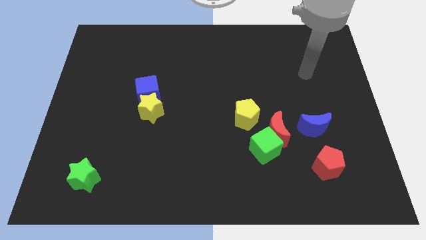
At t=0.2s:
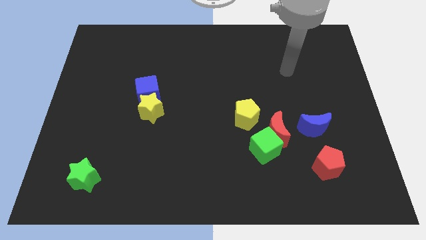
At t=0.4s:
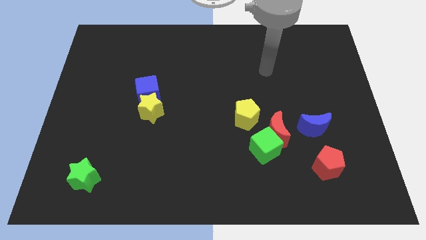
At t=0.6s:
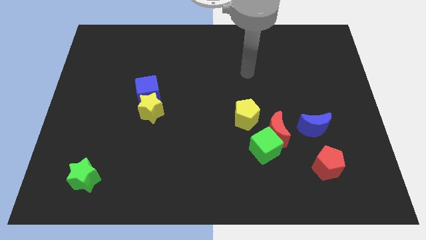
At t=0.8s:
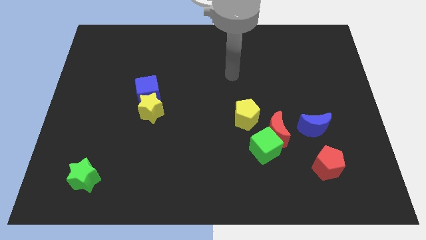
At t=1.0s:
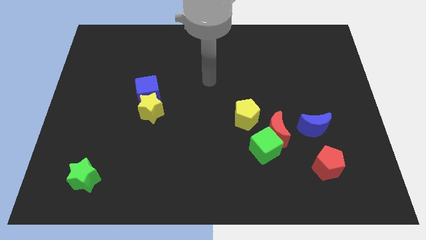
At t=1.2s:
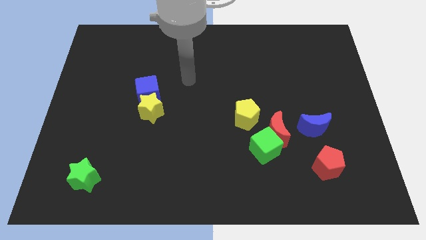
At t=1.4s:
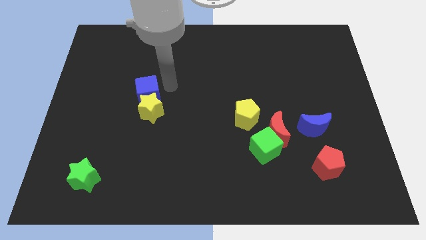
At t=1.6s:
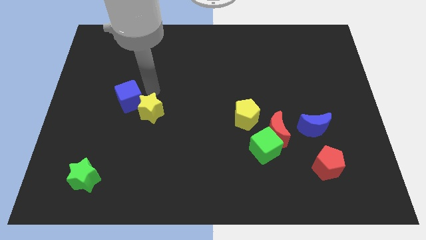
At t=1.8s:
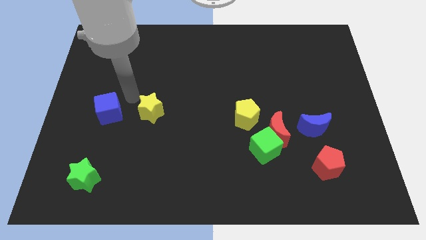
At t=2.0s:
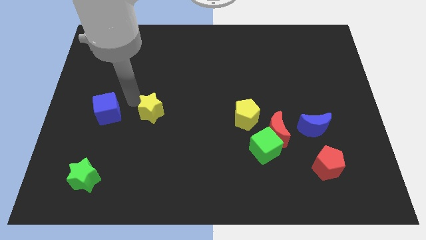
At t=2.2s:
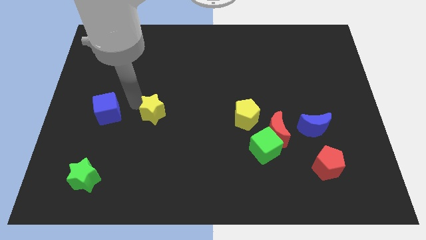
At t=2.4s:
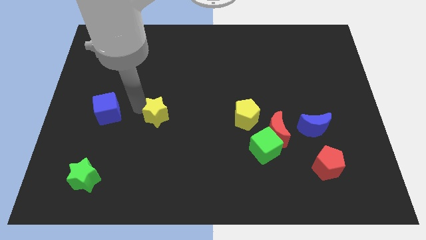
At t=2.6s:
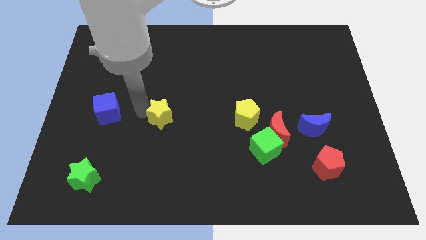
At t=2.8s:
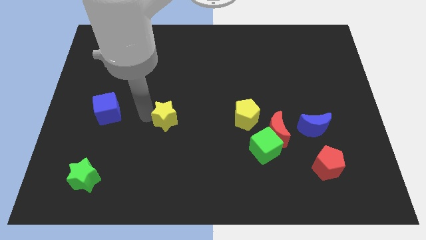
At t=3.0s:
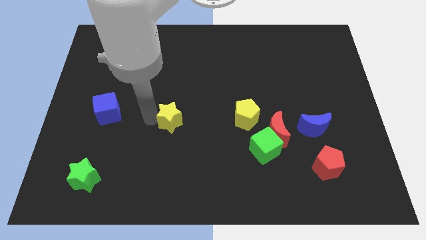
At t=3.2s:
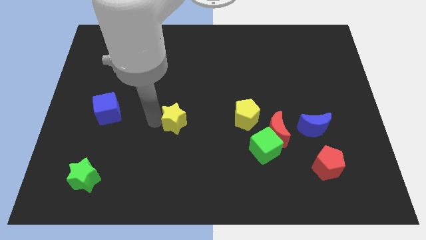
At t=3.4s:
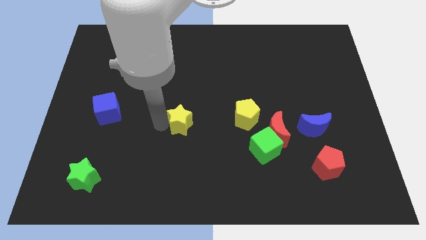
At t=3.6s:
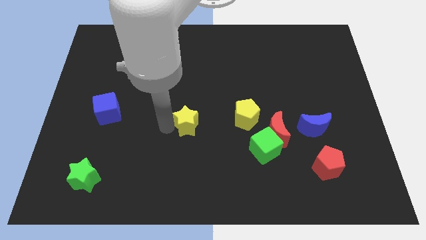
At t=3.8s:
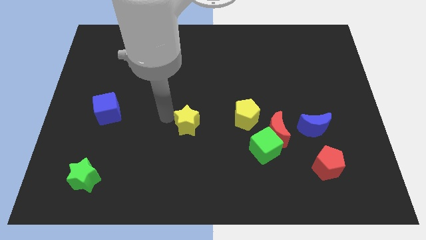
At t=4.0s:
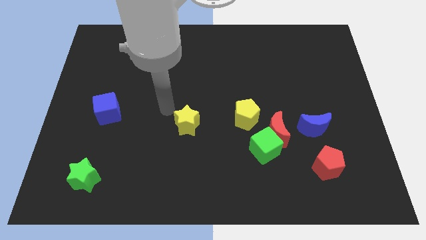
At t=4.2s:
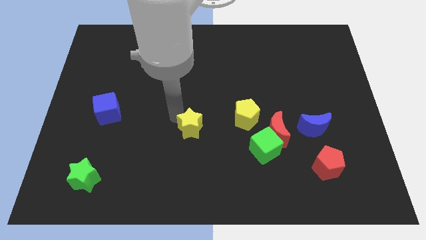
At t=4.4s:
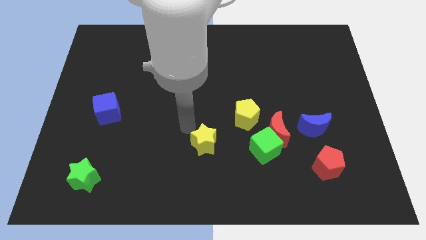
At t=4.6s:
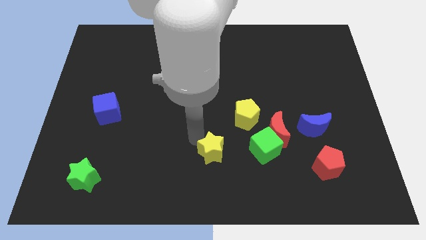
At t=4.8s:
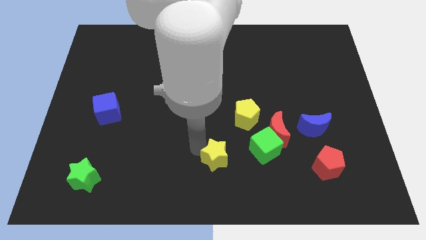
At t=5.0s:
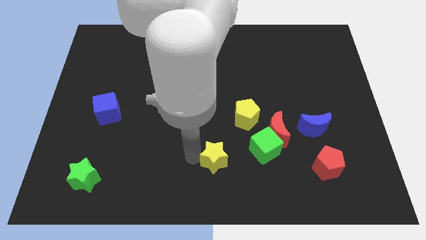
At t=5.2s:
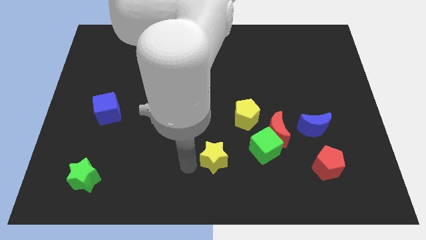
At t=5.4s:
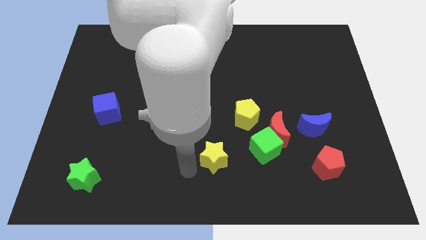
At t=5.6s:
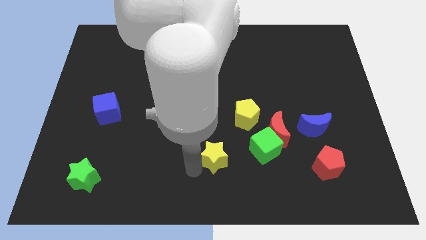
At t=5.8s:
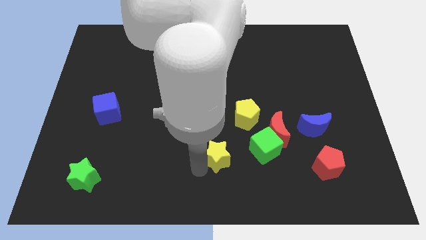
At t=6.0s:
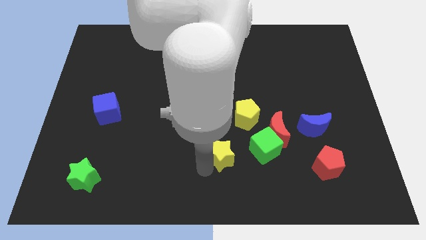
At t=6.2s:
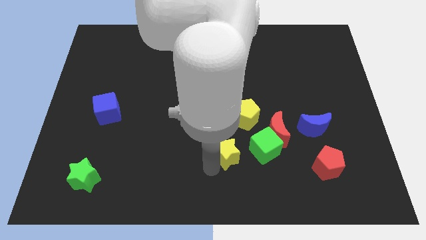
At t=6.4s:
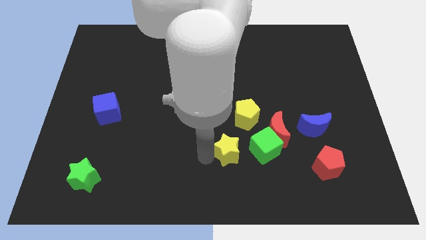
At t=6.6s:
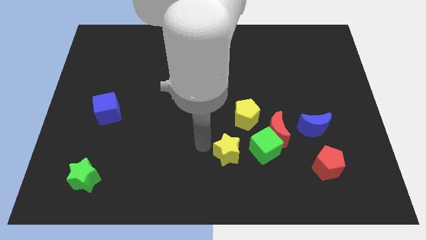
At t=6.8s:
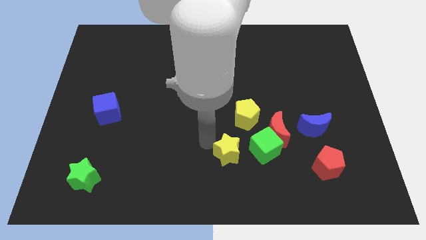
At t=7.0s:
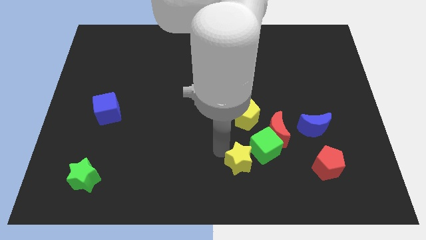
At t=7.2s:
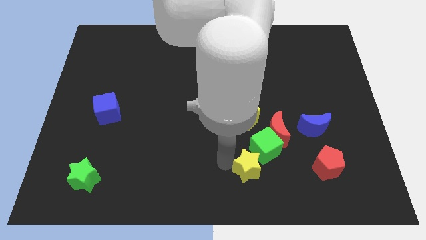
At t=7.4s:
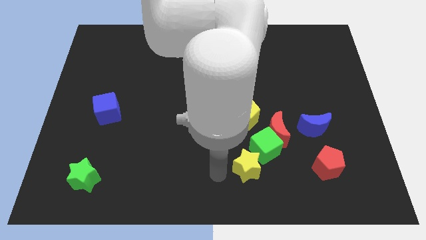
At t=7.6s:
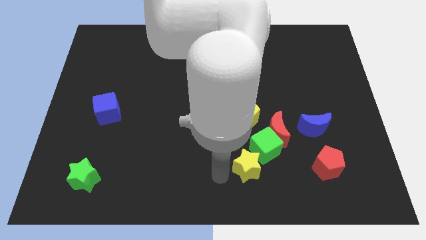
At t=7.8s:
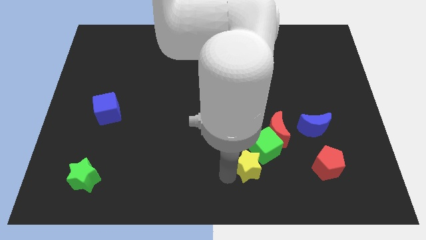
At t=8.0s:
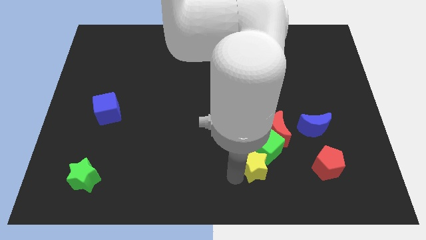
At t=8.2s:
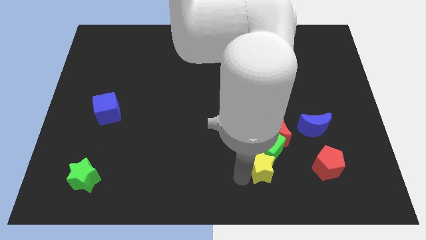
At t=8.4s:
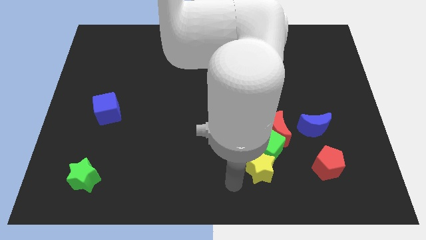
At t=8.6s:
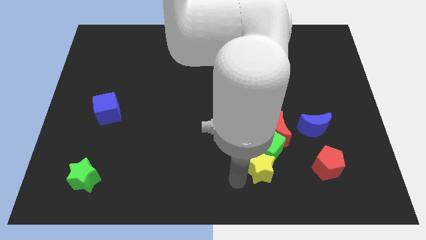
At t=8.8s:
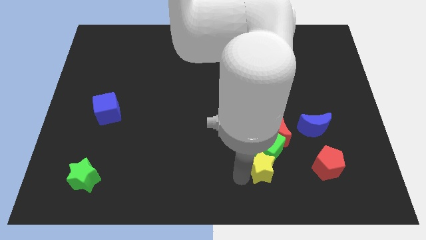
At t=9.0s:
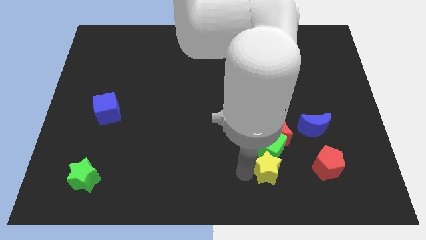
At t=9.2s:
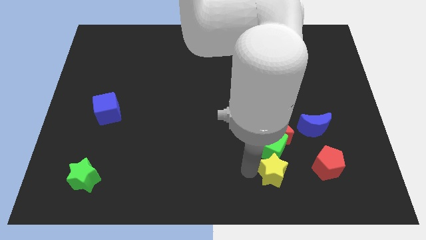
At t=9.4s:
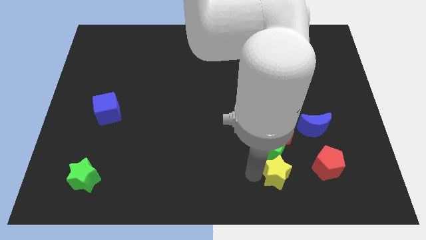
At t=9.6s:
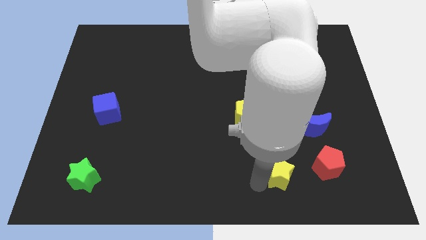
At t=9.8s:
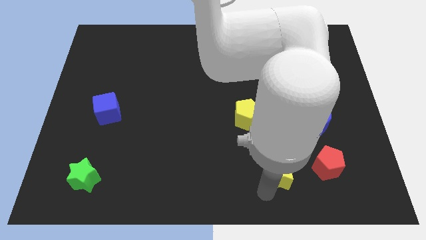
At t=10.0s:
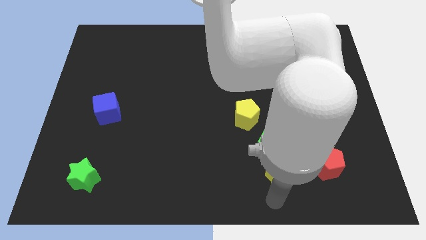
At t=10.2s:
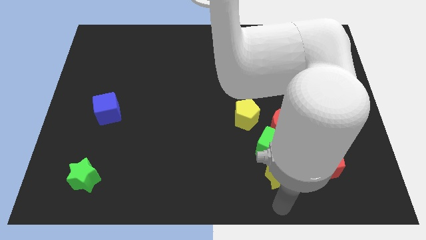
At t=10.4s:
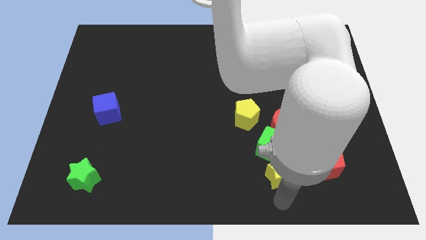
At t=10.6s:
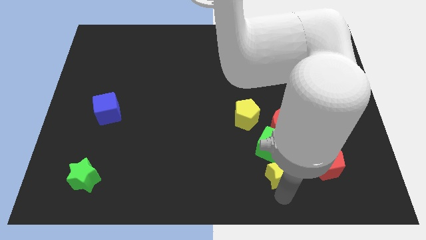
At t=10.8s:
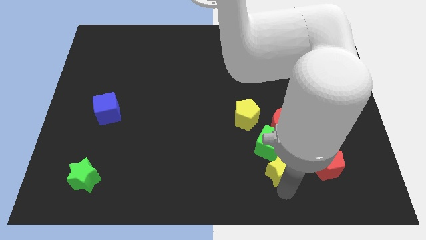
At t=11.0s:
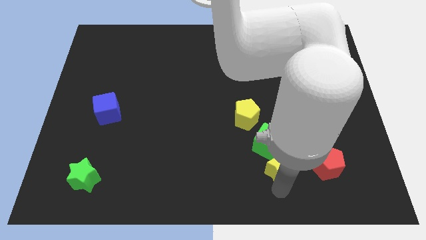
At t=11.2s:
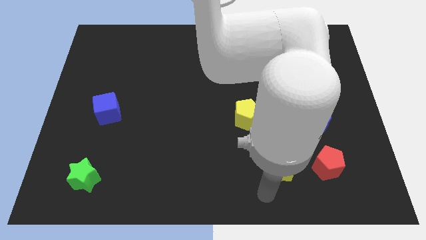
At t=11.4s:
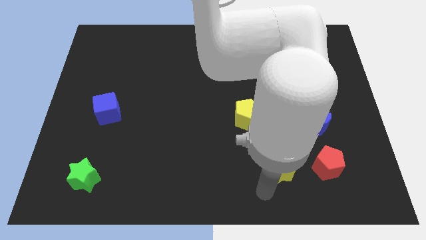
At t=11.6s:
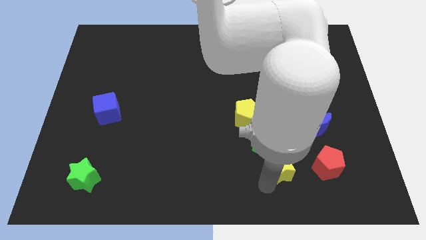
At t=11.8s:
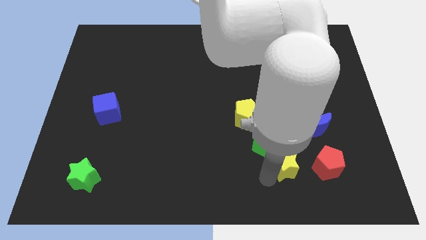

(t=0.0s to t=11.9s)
slide the yellow star to the bottom left of the blue moon

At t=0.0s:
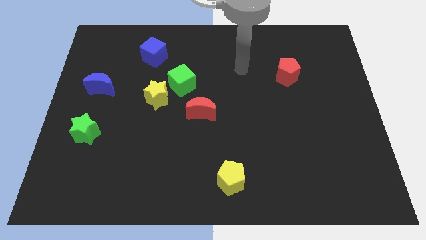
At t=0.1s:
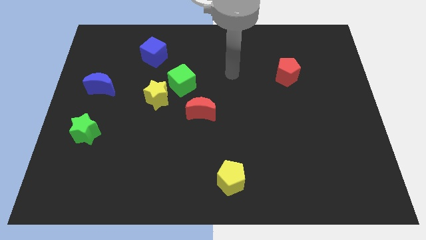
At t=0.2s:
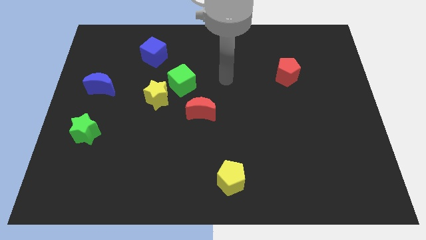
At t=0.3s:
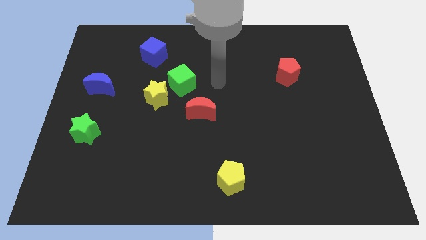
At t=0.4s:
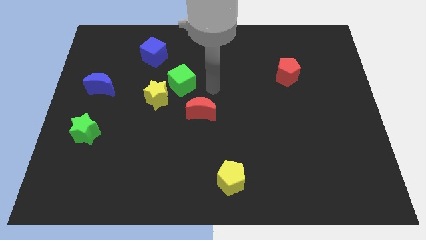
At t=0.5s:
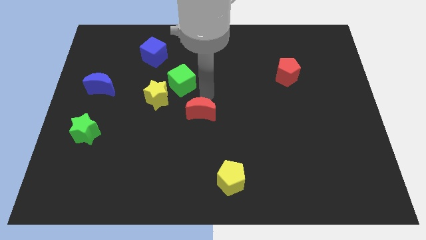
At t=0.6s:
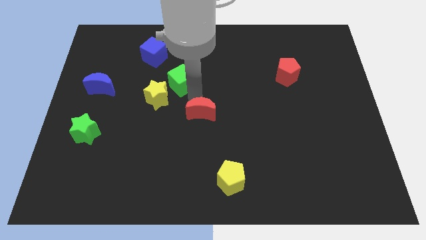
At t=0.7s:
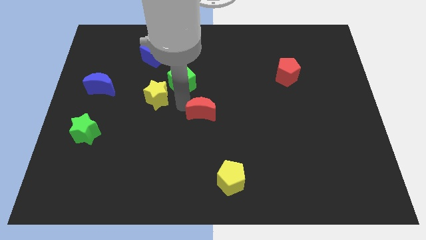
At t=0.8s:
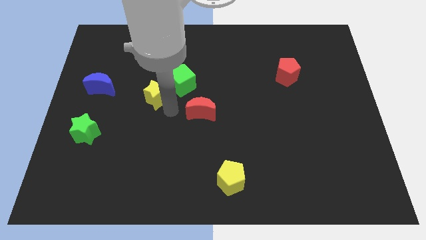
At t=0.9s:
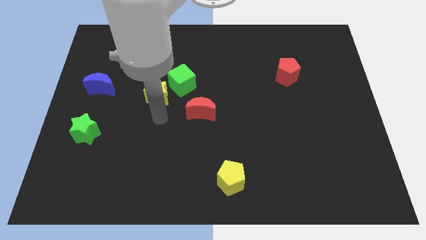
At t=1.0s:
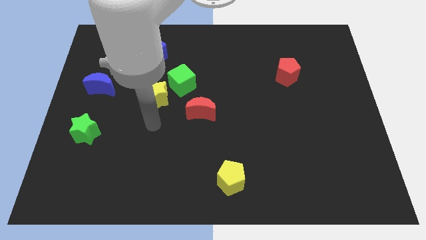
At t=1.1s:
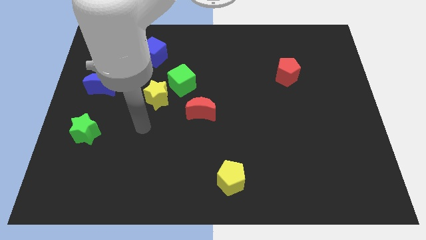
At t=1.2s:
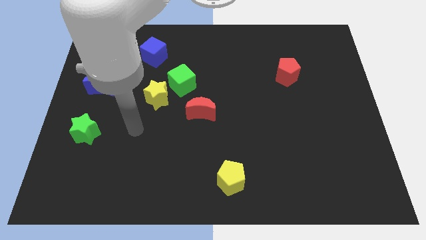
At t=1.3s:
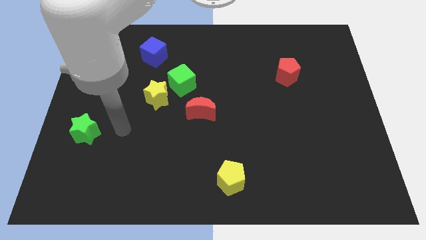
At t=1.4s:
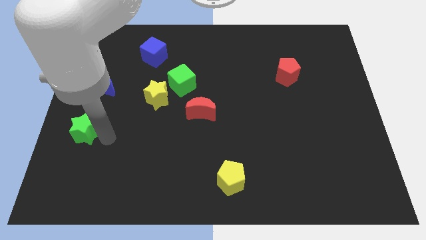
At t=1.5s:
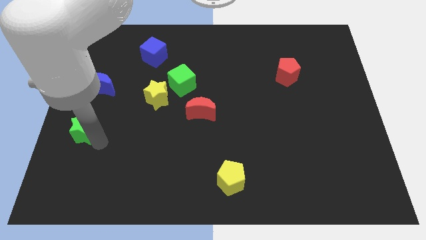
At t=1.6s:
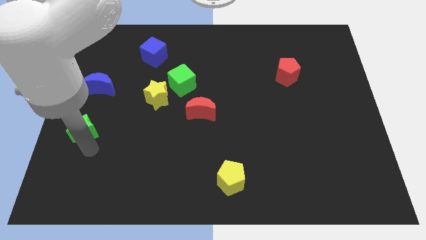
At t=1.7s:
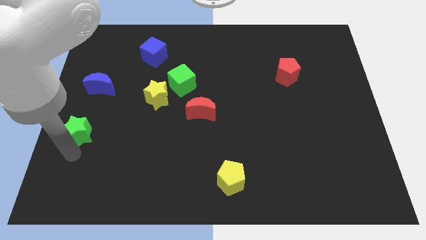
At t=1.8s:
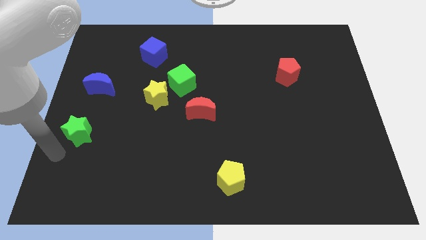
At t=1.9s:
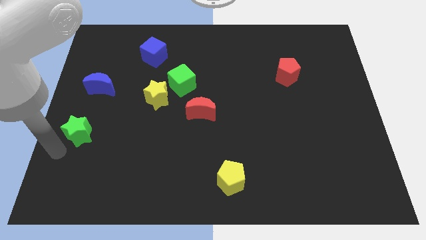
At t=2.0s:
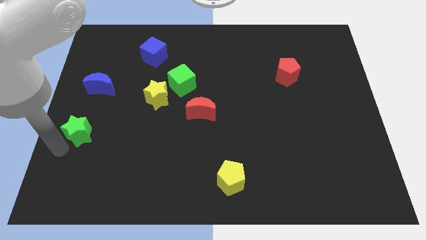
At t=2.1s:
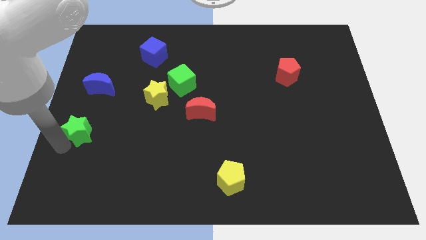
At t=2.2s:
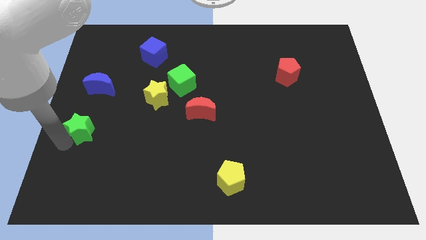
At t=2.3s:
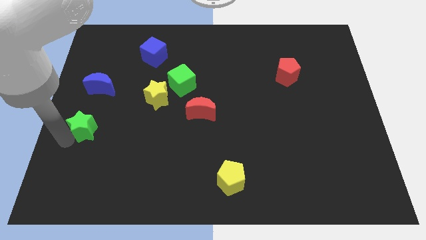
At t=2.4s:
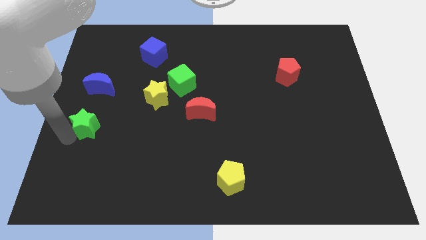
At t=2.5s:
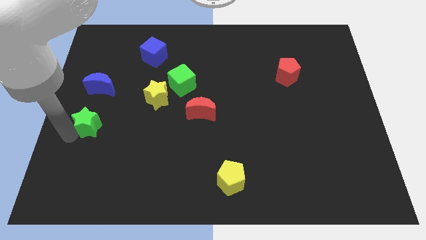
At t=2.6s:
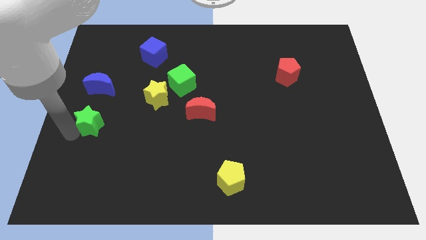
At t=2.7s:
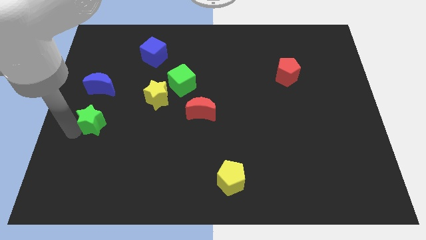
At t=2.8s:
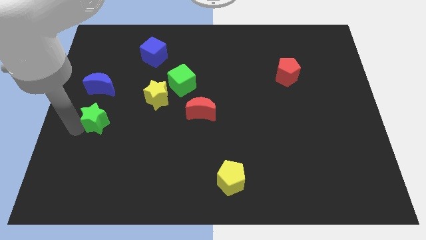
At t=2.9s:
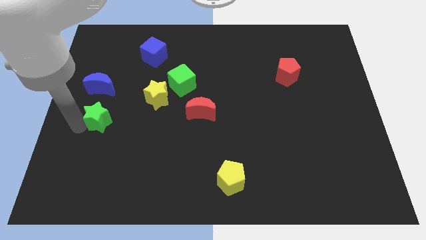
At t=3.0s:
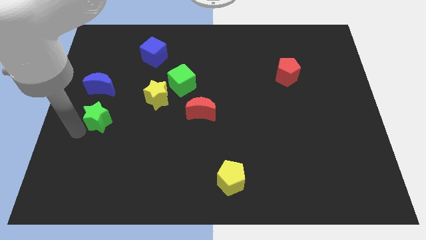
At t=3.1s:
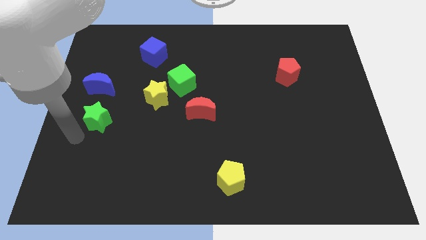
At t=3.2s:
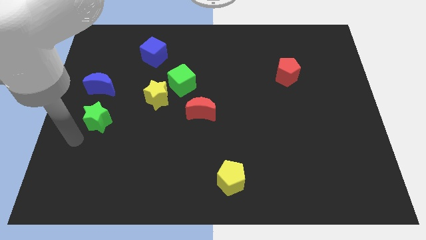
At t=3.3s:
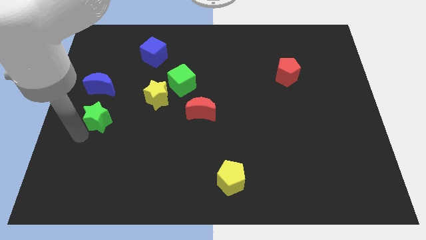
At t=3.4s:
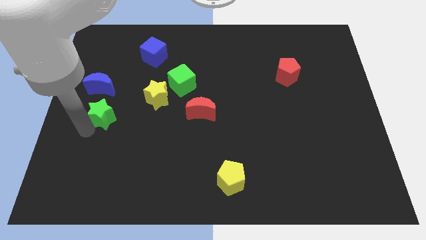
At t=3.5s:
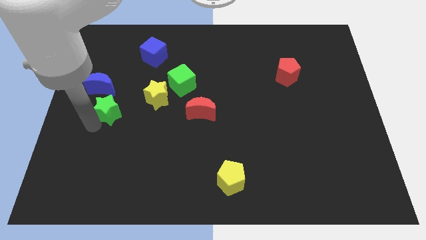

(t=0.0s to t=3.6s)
put the green star diagonally down and to the right of the blue moon
